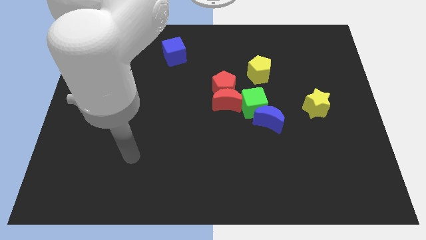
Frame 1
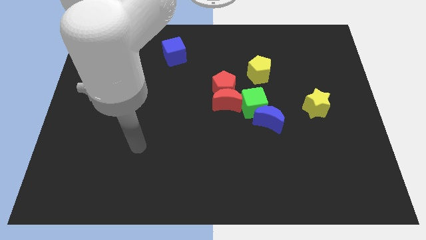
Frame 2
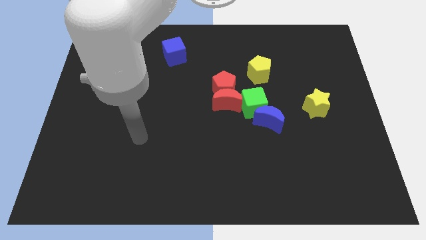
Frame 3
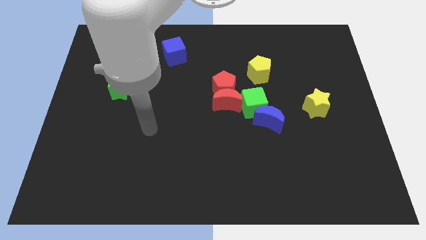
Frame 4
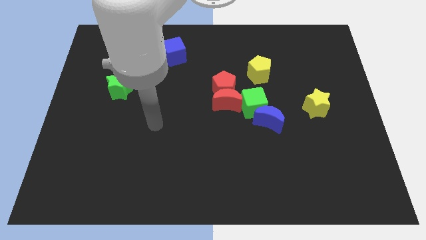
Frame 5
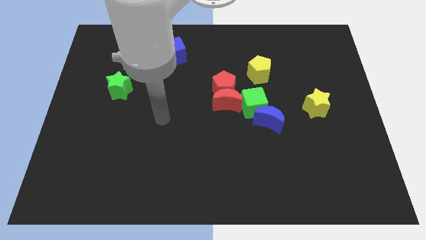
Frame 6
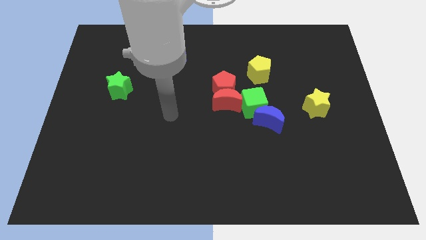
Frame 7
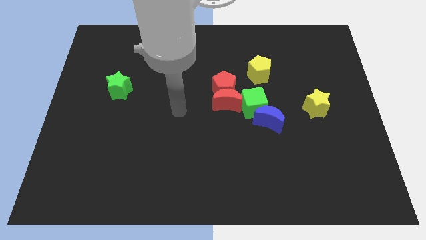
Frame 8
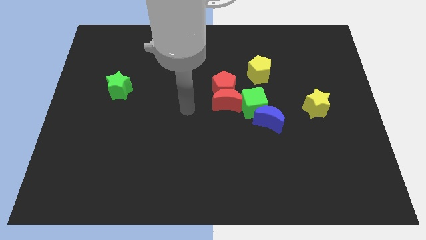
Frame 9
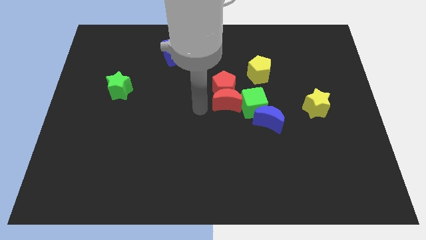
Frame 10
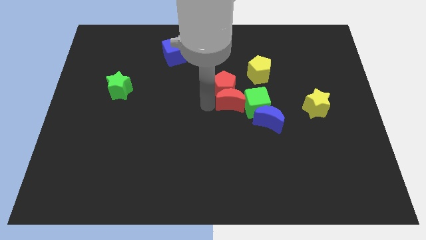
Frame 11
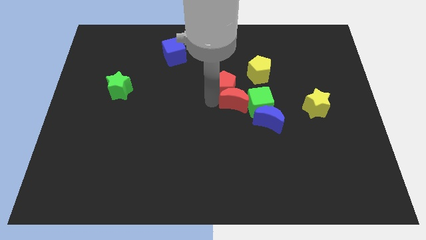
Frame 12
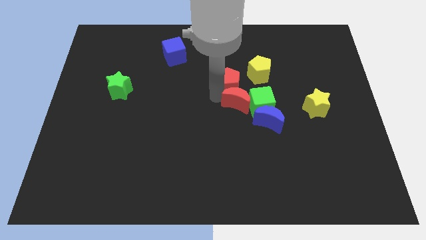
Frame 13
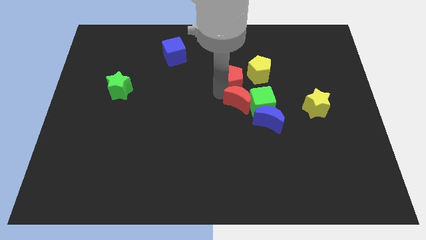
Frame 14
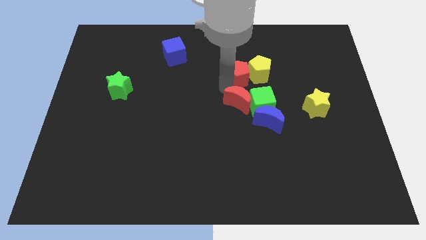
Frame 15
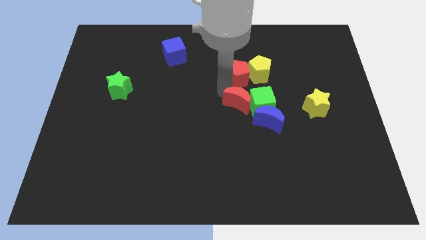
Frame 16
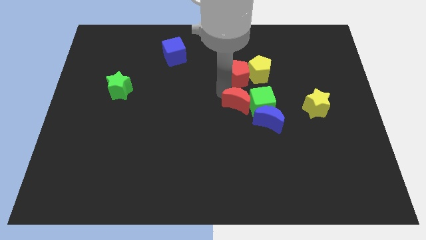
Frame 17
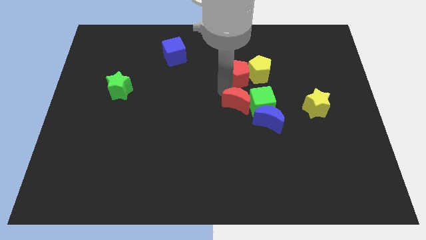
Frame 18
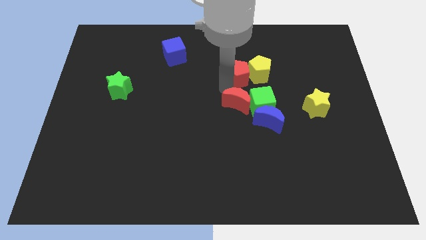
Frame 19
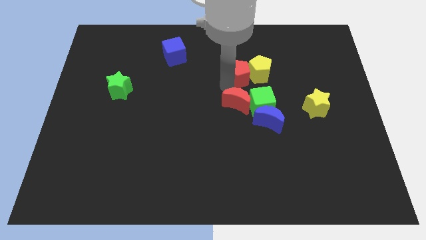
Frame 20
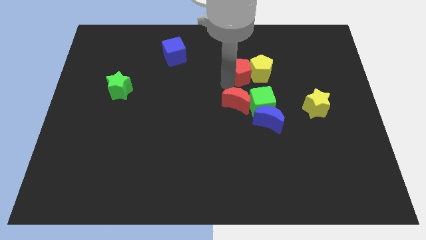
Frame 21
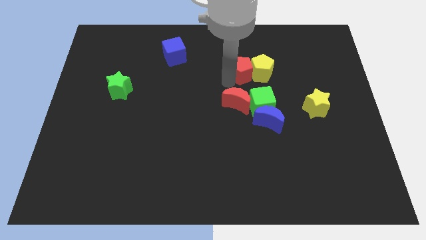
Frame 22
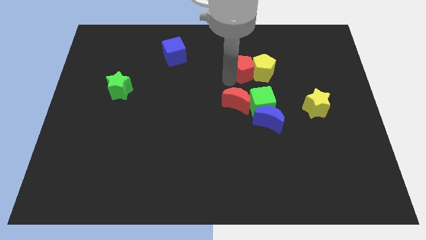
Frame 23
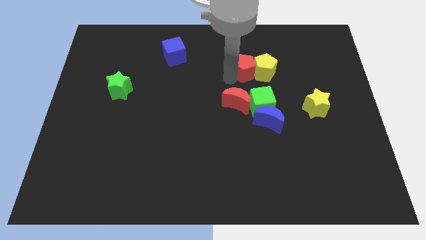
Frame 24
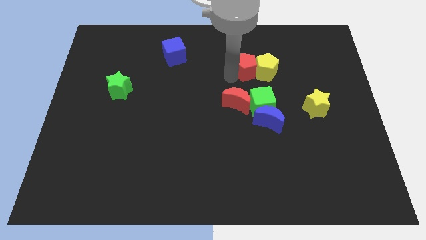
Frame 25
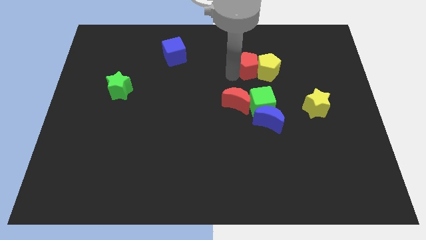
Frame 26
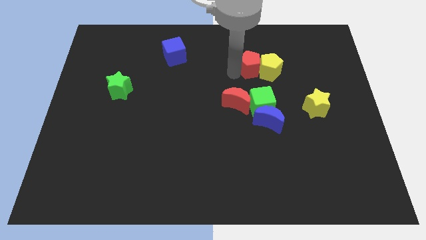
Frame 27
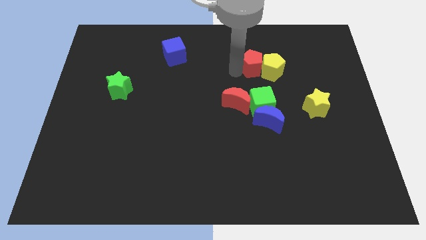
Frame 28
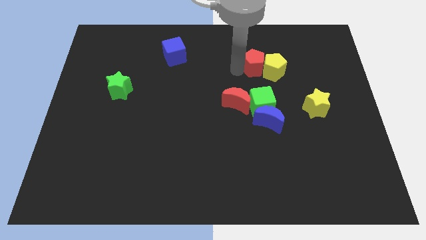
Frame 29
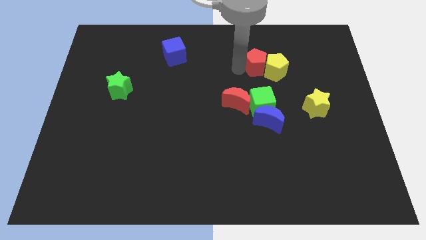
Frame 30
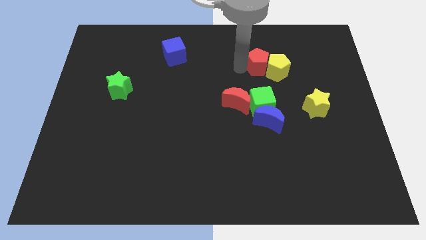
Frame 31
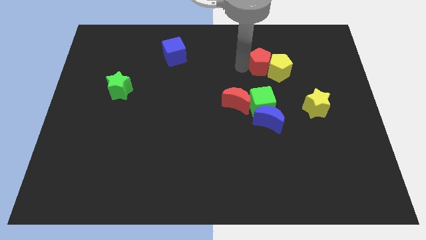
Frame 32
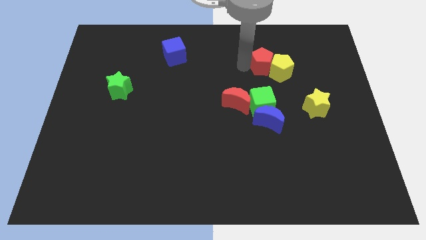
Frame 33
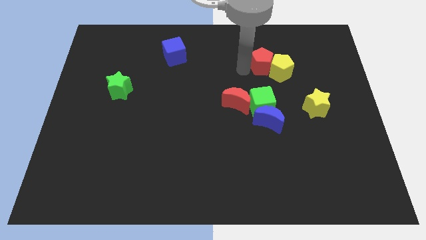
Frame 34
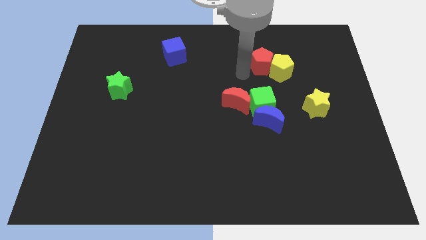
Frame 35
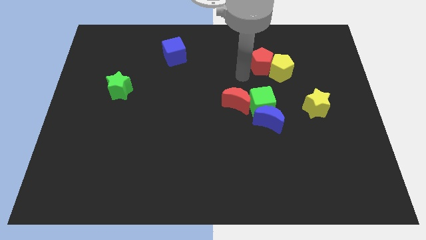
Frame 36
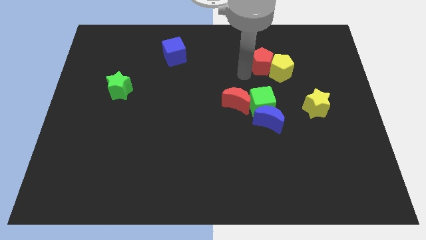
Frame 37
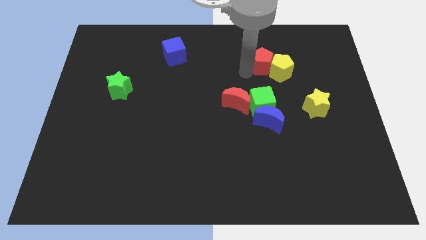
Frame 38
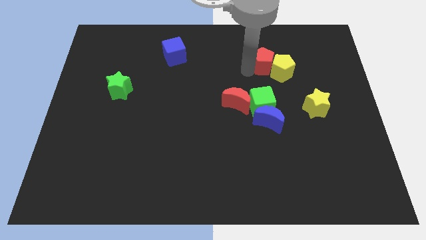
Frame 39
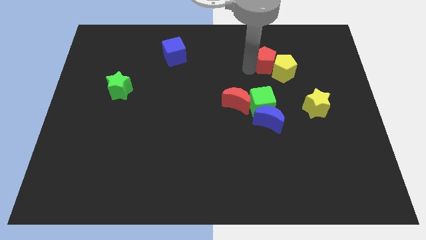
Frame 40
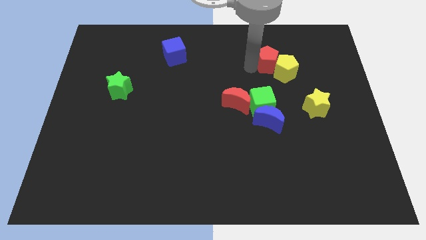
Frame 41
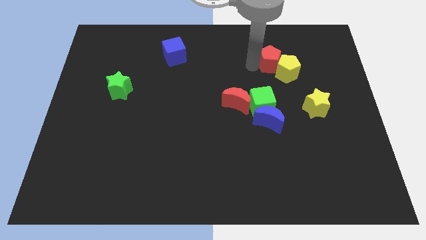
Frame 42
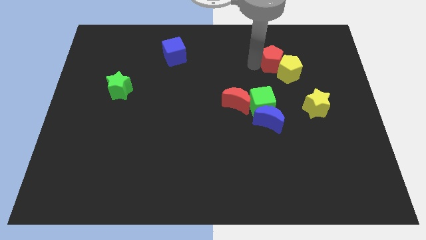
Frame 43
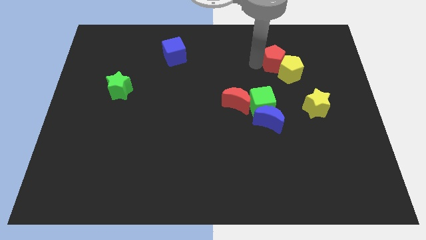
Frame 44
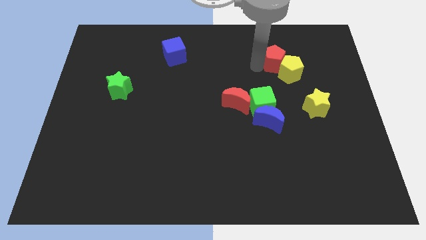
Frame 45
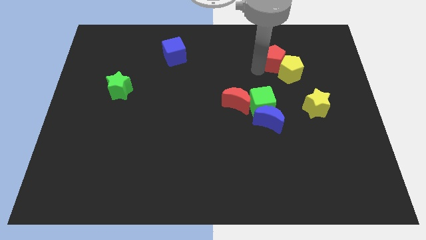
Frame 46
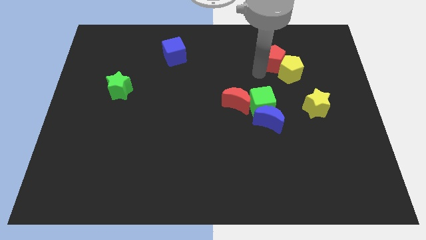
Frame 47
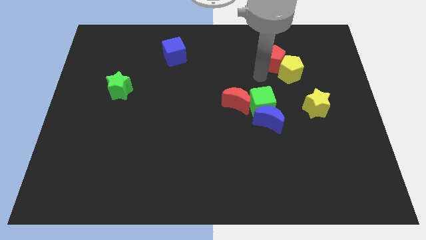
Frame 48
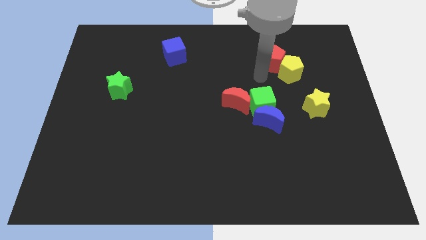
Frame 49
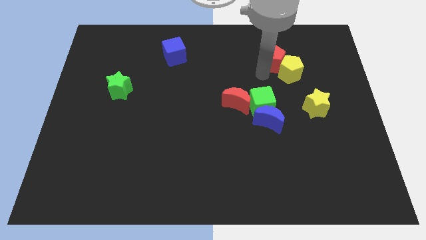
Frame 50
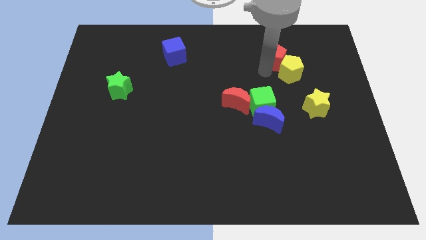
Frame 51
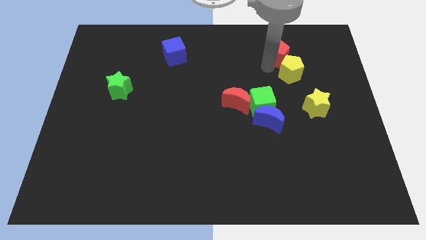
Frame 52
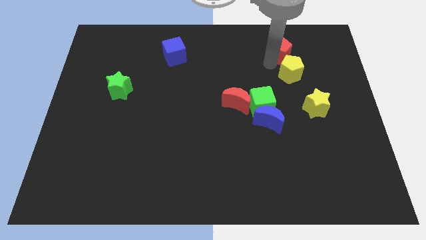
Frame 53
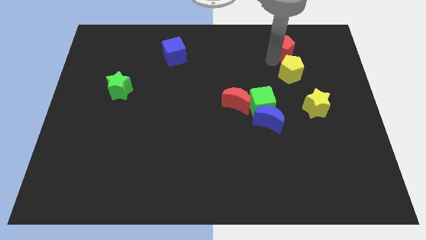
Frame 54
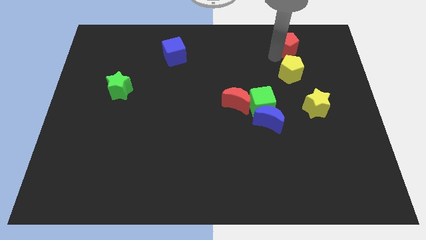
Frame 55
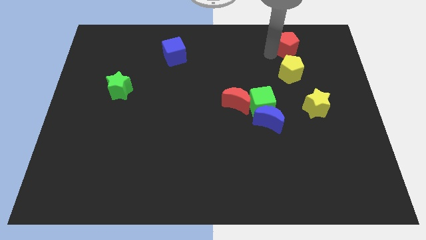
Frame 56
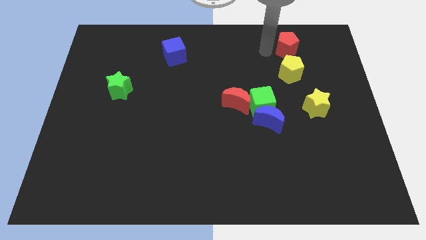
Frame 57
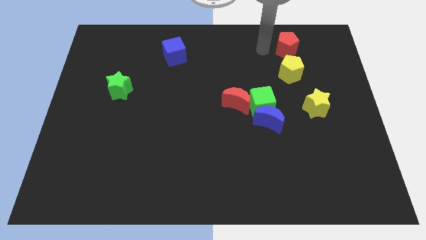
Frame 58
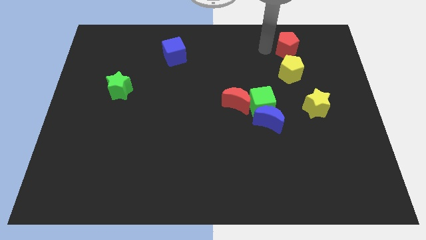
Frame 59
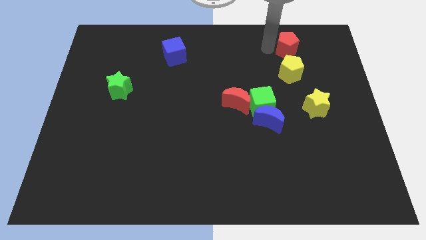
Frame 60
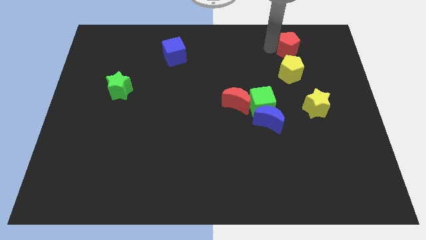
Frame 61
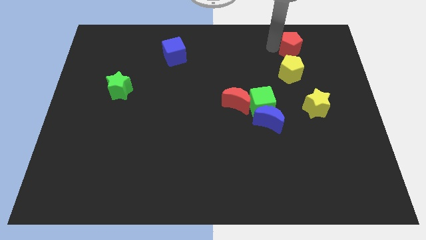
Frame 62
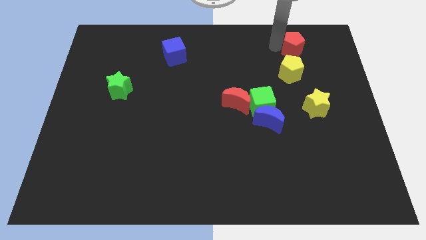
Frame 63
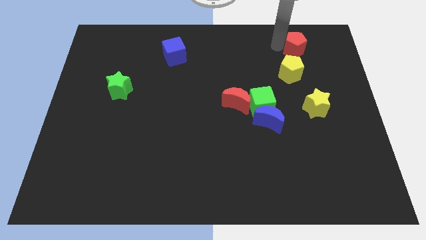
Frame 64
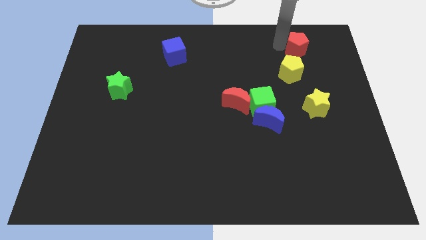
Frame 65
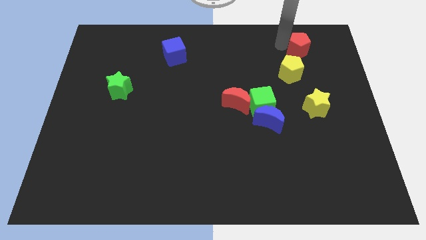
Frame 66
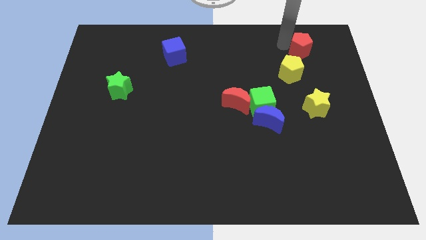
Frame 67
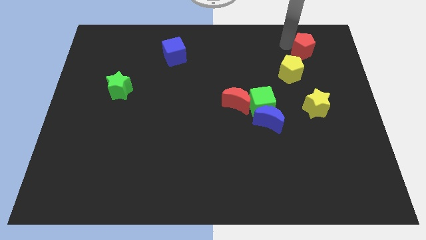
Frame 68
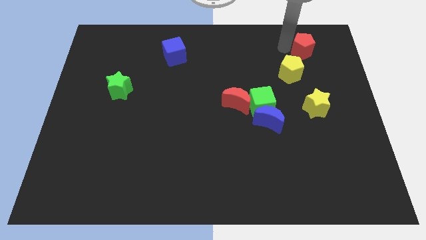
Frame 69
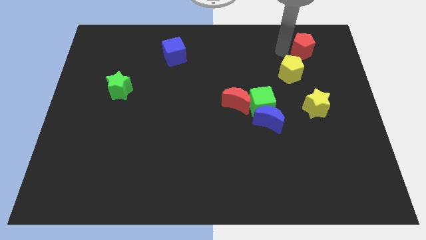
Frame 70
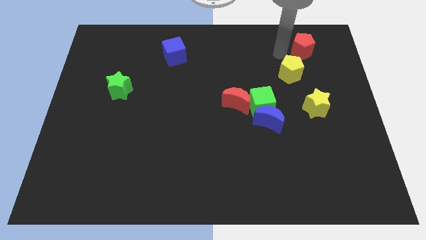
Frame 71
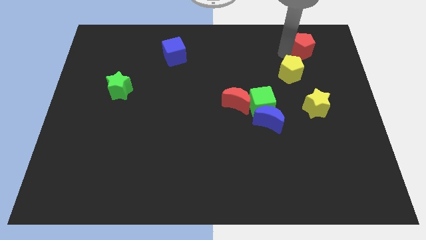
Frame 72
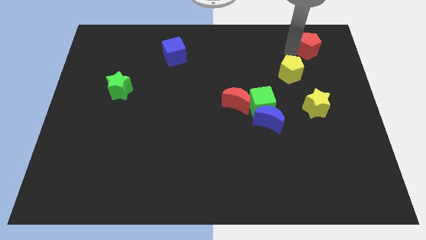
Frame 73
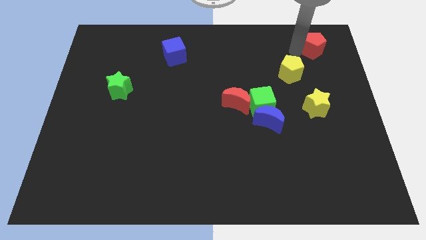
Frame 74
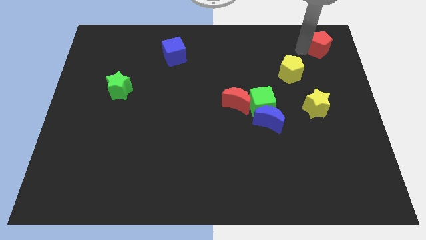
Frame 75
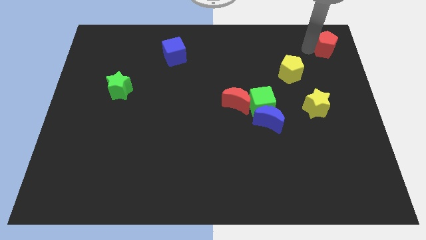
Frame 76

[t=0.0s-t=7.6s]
move the red pentagon to the top right
